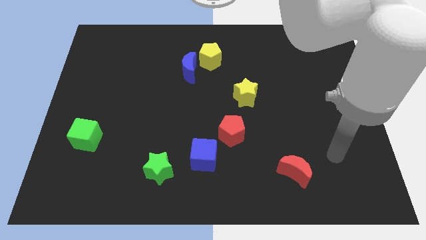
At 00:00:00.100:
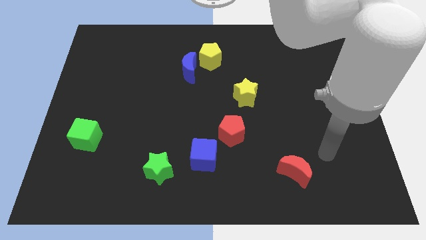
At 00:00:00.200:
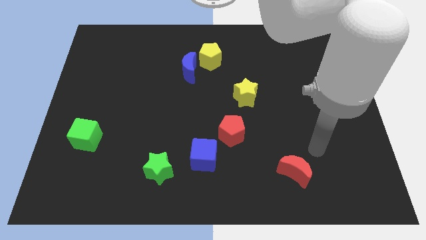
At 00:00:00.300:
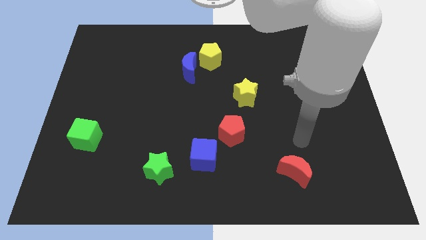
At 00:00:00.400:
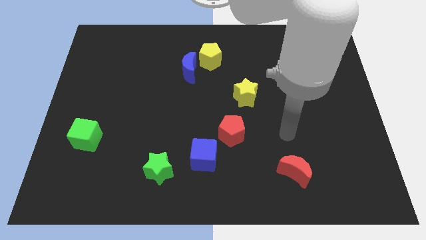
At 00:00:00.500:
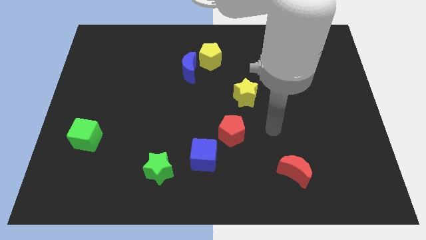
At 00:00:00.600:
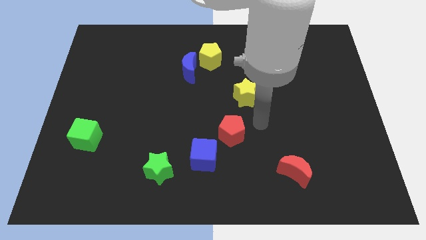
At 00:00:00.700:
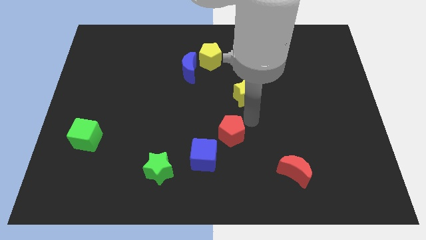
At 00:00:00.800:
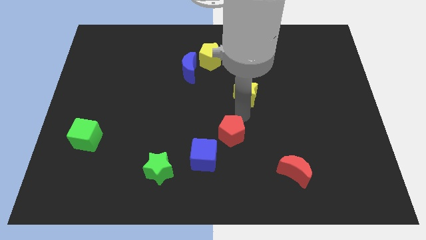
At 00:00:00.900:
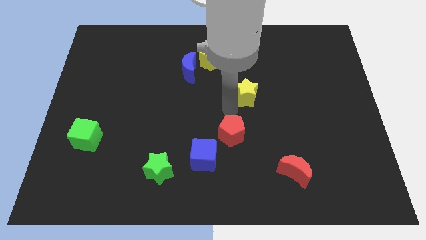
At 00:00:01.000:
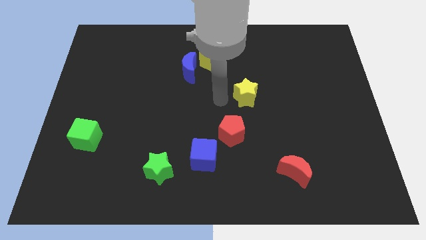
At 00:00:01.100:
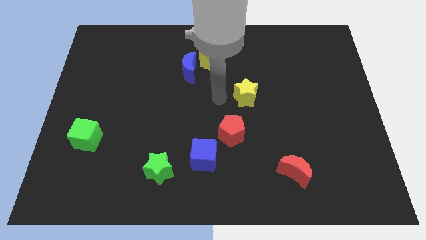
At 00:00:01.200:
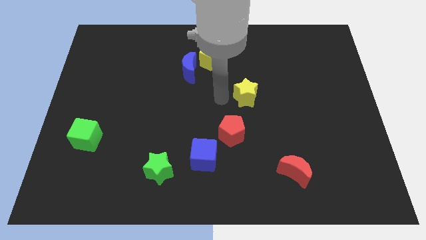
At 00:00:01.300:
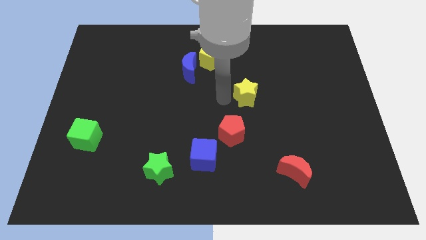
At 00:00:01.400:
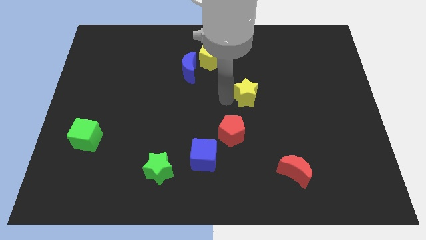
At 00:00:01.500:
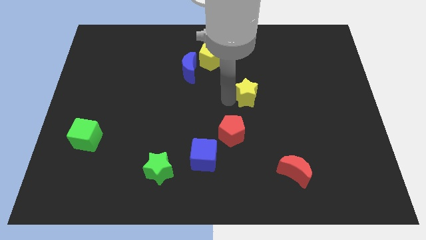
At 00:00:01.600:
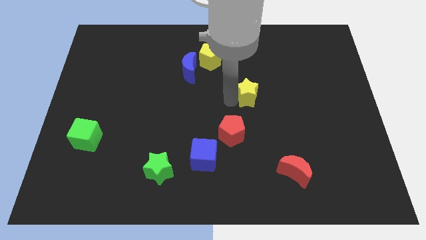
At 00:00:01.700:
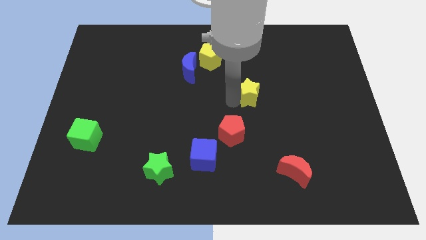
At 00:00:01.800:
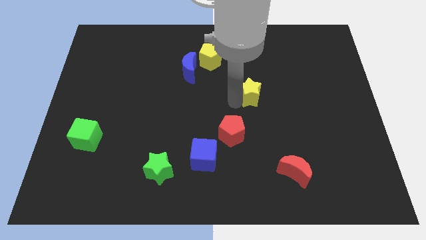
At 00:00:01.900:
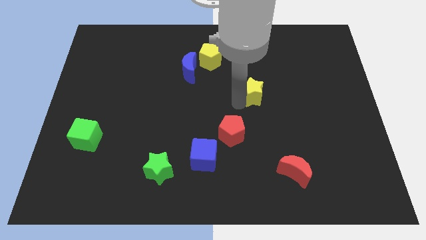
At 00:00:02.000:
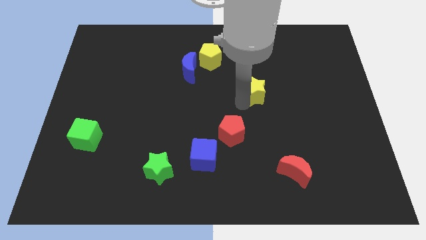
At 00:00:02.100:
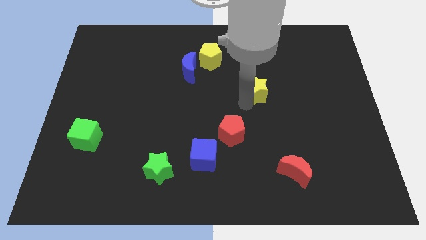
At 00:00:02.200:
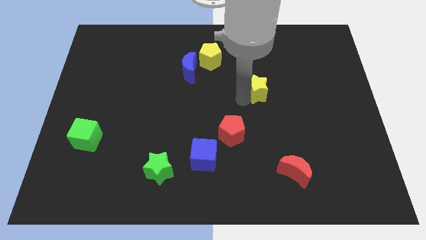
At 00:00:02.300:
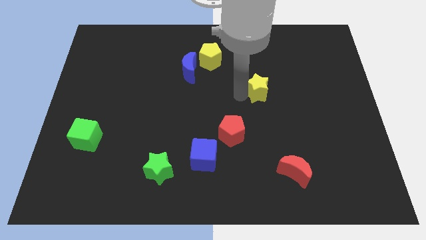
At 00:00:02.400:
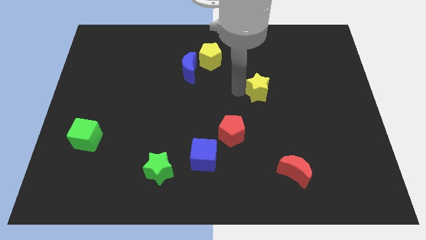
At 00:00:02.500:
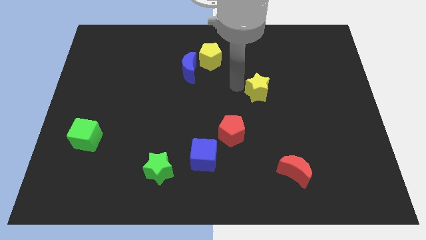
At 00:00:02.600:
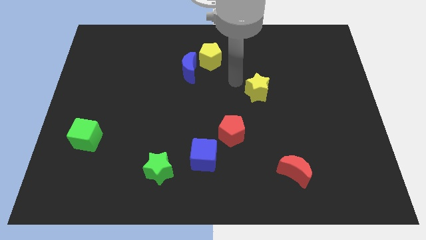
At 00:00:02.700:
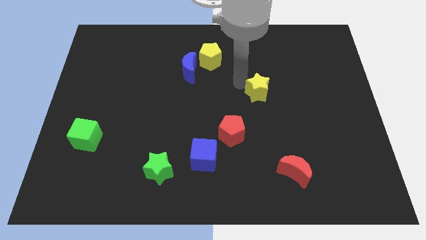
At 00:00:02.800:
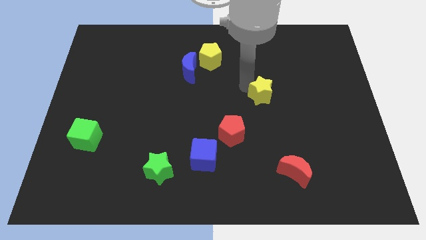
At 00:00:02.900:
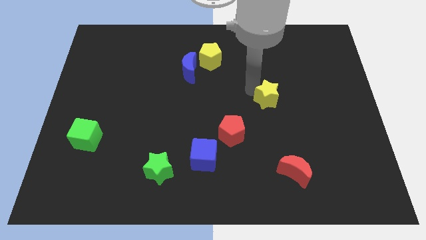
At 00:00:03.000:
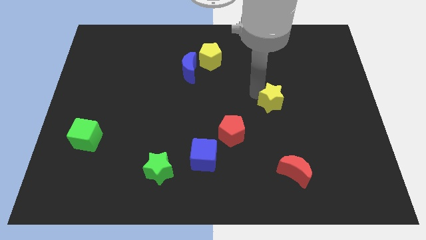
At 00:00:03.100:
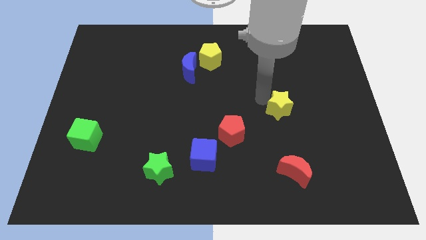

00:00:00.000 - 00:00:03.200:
move the yellow star somewhat to the right

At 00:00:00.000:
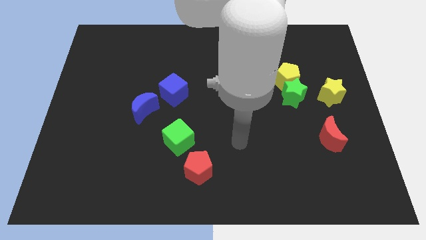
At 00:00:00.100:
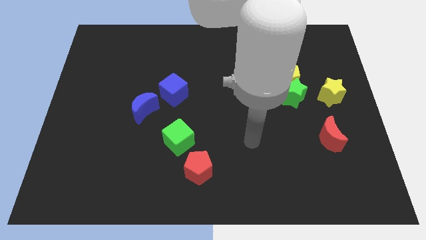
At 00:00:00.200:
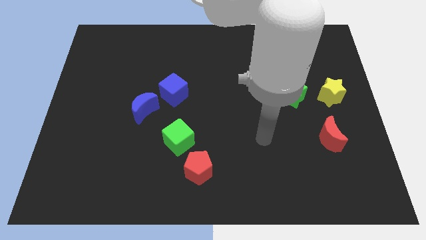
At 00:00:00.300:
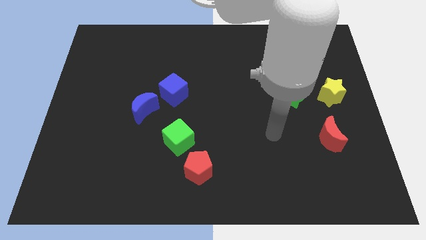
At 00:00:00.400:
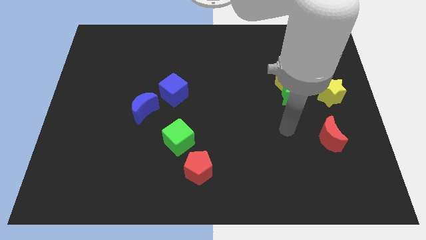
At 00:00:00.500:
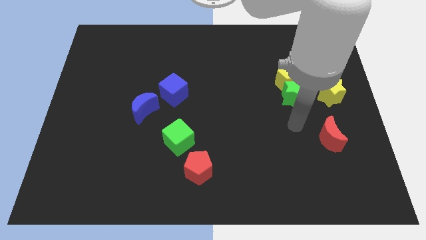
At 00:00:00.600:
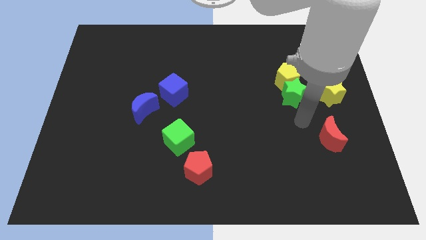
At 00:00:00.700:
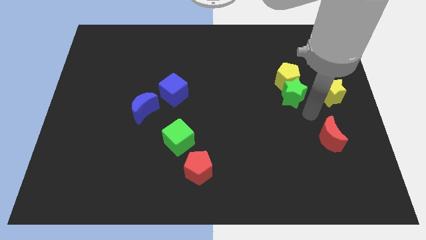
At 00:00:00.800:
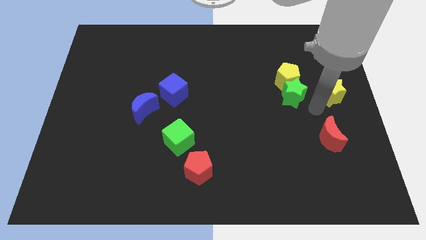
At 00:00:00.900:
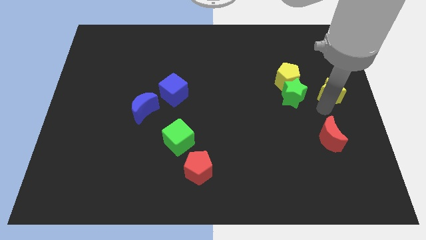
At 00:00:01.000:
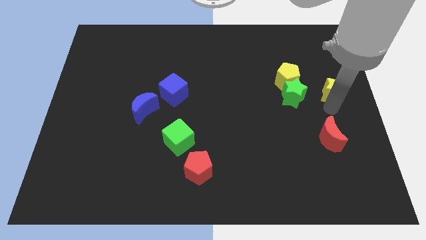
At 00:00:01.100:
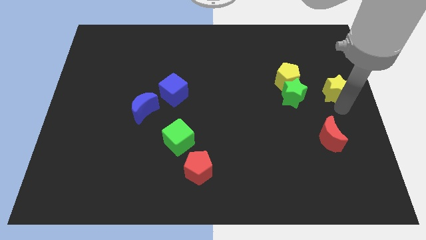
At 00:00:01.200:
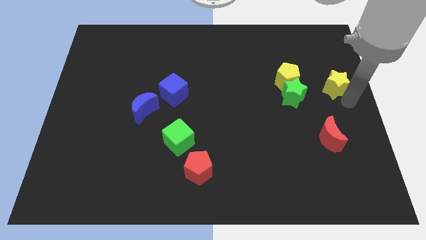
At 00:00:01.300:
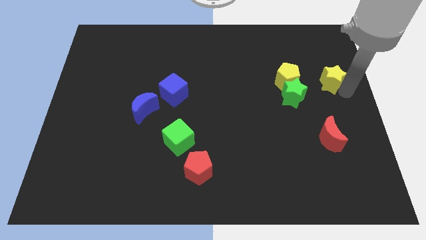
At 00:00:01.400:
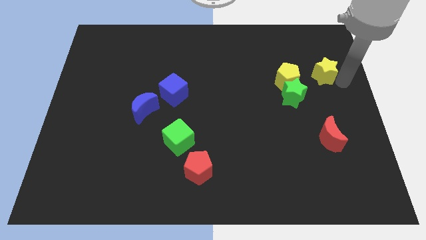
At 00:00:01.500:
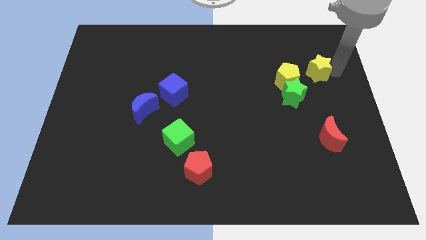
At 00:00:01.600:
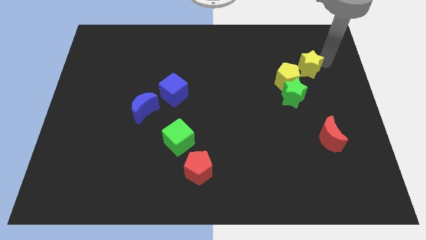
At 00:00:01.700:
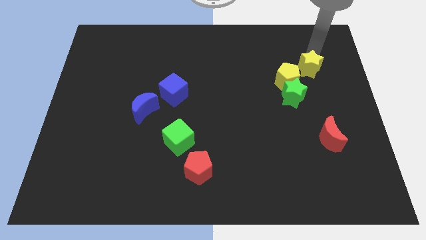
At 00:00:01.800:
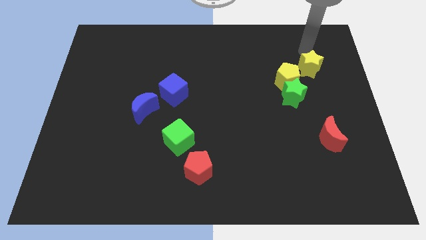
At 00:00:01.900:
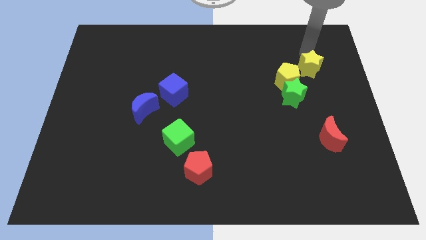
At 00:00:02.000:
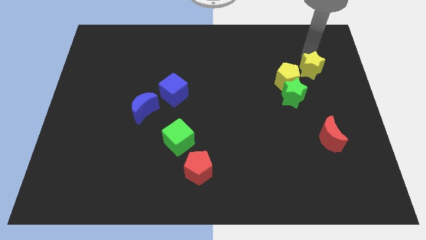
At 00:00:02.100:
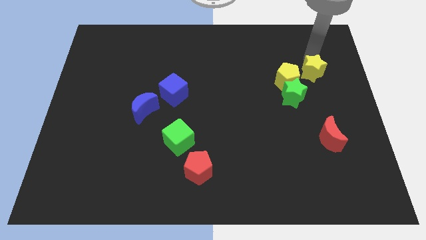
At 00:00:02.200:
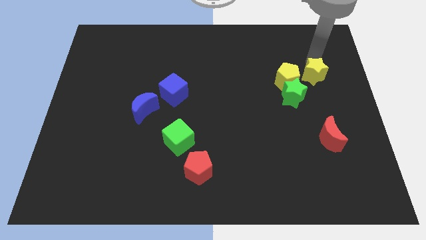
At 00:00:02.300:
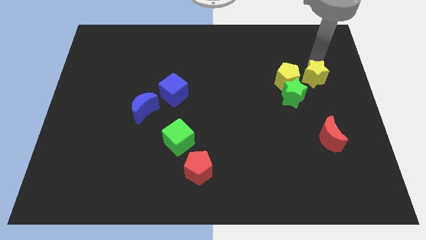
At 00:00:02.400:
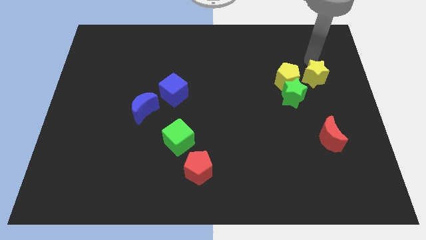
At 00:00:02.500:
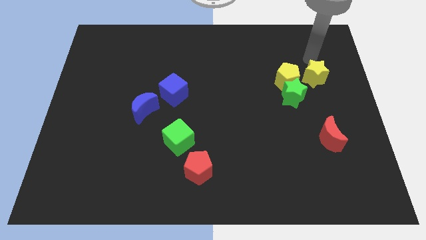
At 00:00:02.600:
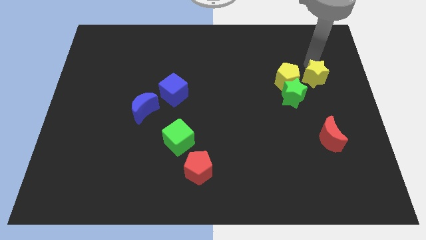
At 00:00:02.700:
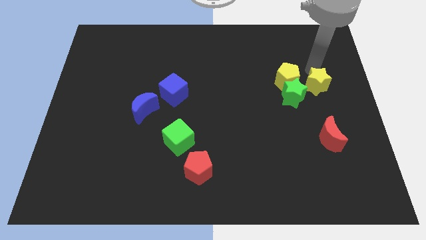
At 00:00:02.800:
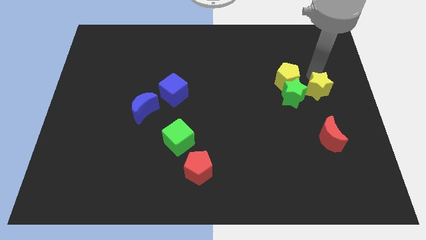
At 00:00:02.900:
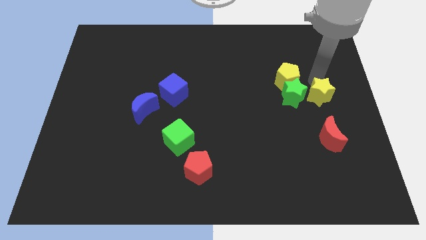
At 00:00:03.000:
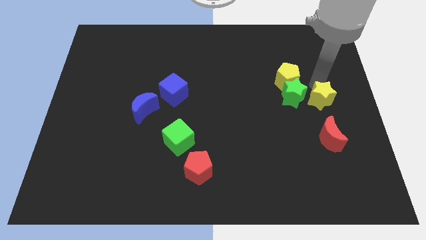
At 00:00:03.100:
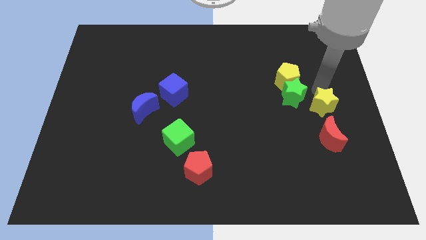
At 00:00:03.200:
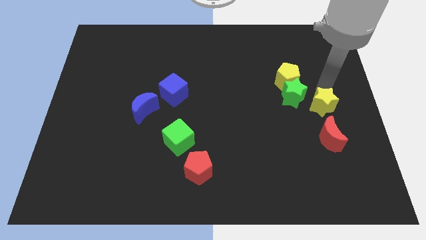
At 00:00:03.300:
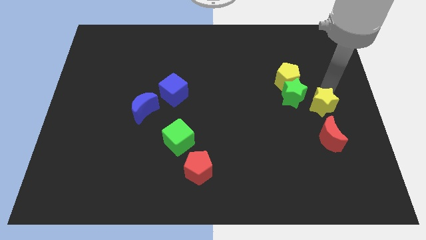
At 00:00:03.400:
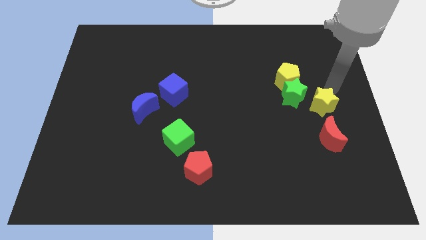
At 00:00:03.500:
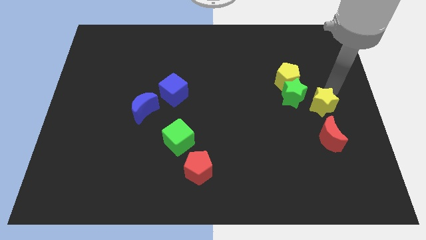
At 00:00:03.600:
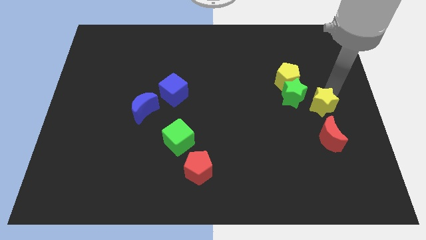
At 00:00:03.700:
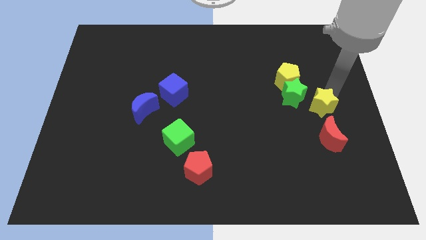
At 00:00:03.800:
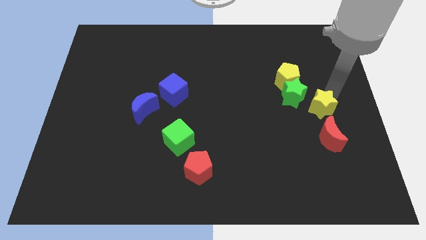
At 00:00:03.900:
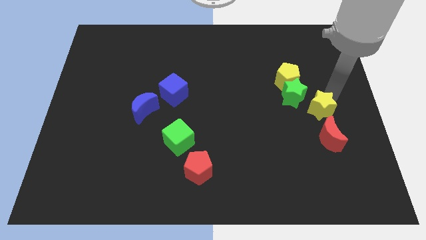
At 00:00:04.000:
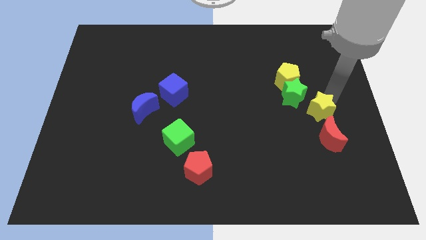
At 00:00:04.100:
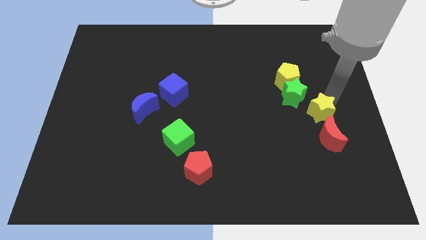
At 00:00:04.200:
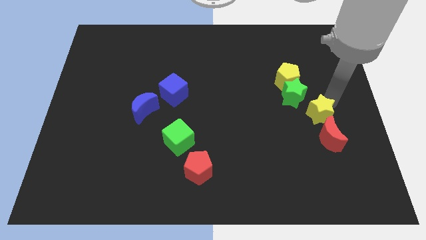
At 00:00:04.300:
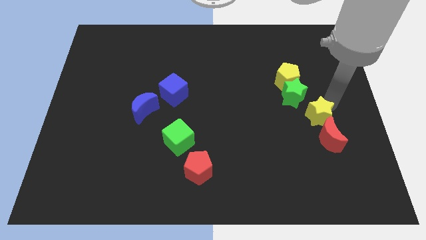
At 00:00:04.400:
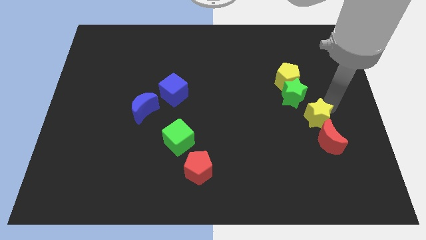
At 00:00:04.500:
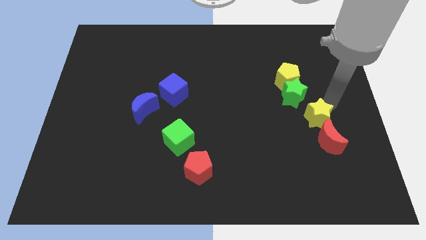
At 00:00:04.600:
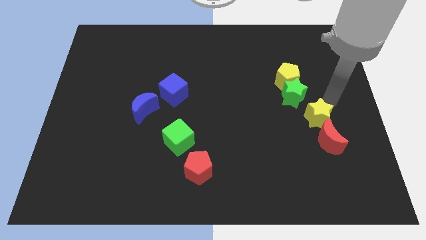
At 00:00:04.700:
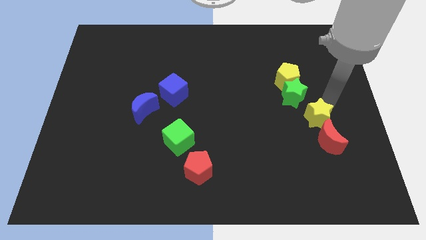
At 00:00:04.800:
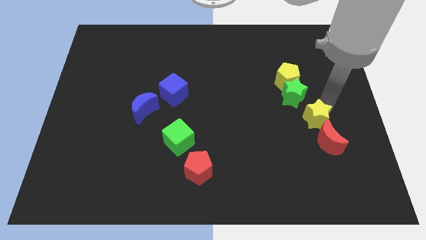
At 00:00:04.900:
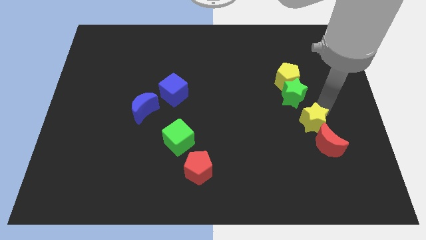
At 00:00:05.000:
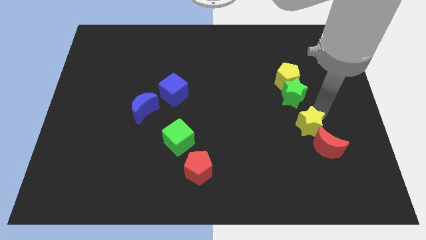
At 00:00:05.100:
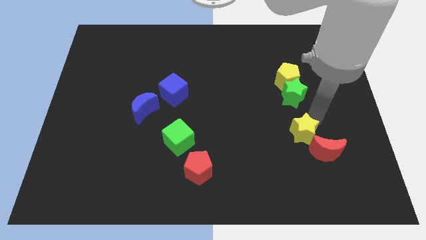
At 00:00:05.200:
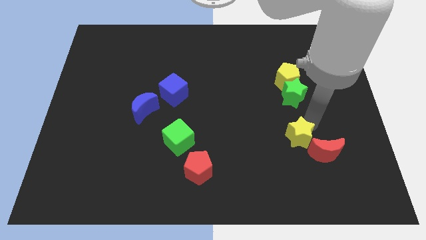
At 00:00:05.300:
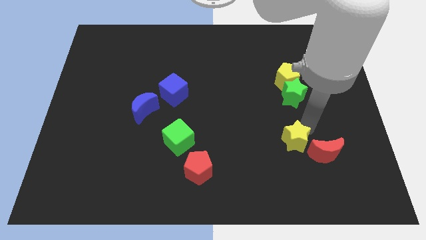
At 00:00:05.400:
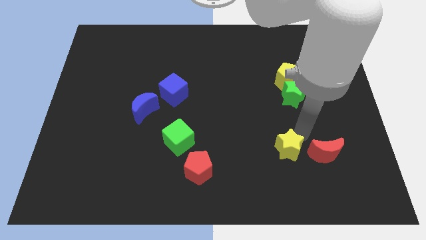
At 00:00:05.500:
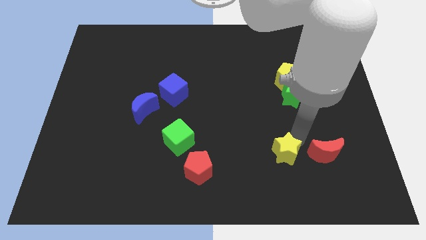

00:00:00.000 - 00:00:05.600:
slide the yellow star down and to the left
